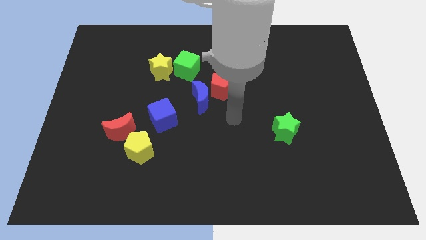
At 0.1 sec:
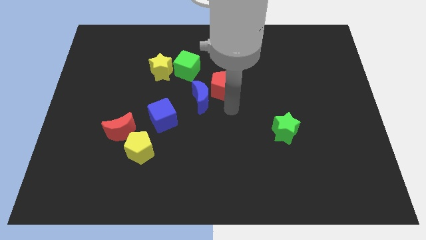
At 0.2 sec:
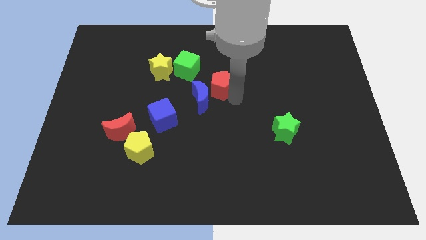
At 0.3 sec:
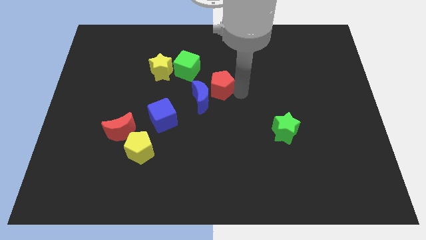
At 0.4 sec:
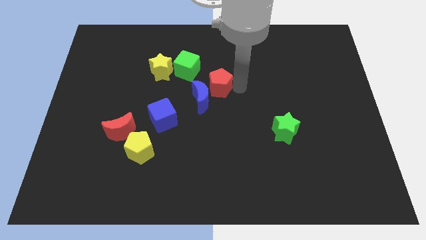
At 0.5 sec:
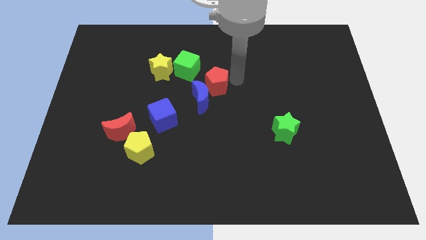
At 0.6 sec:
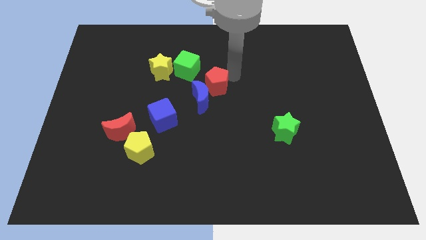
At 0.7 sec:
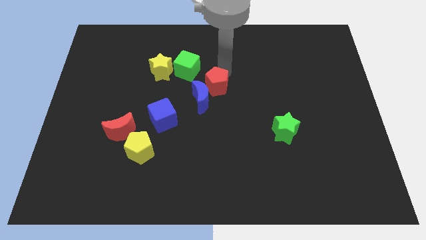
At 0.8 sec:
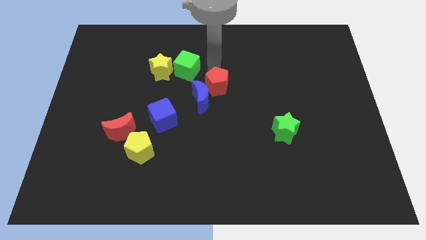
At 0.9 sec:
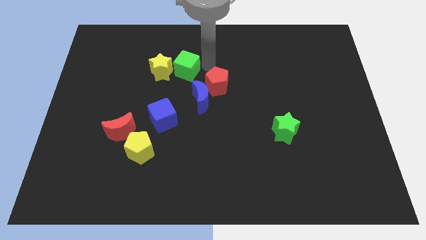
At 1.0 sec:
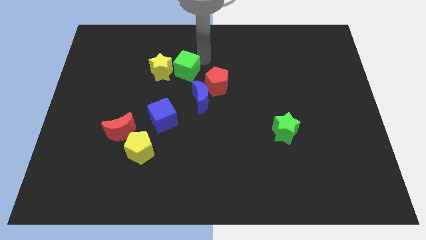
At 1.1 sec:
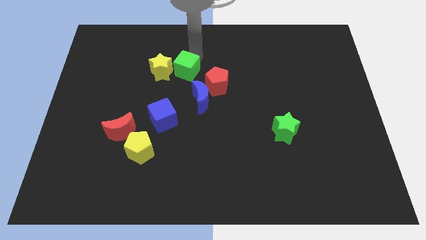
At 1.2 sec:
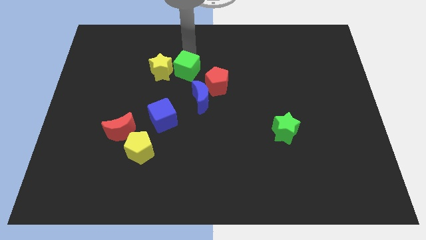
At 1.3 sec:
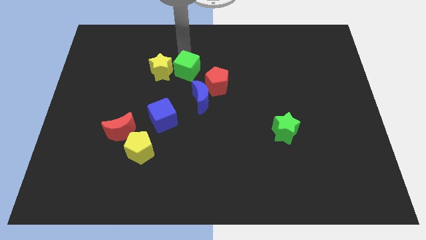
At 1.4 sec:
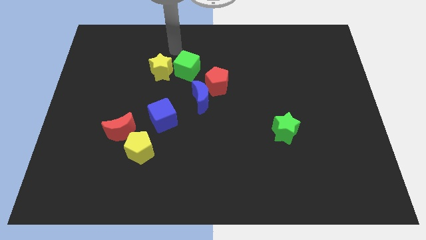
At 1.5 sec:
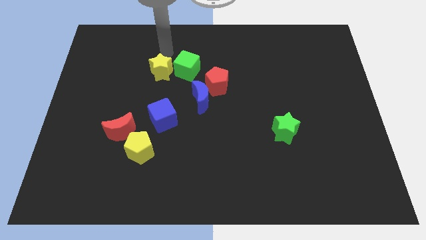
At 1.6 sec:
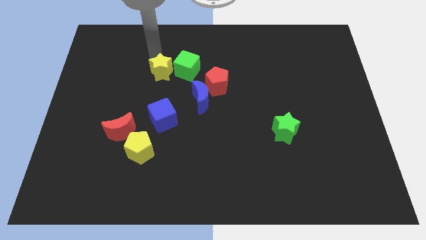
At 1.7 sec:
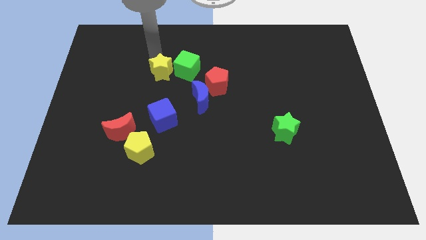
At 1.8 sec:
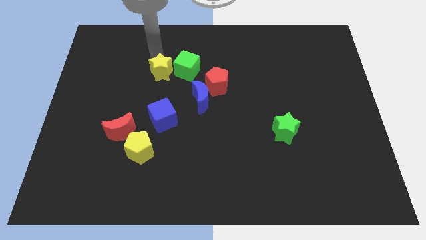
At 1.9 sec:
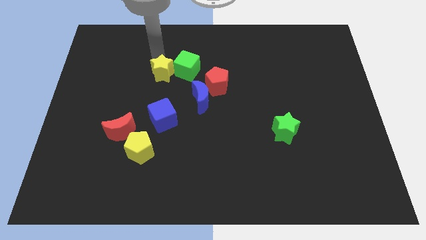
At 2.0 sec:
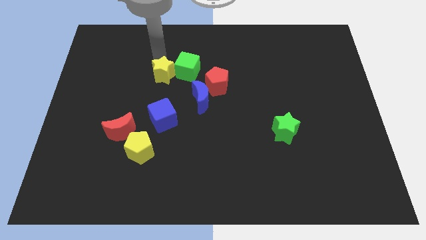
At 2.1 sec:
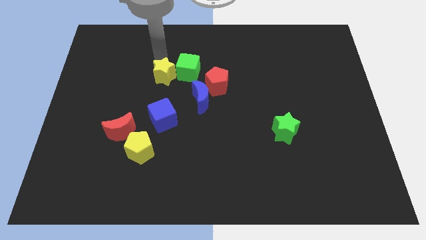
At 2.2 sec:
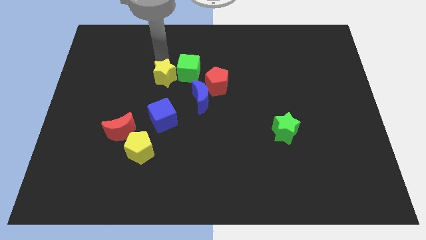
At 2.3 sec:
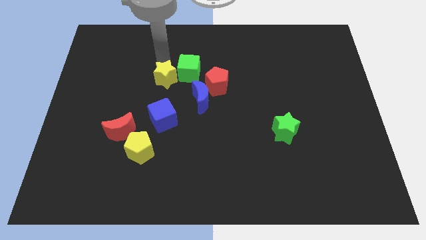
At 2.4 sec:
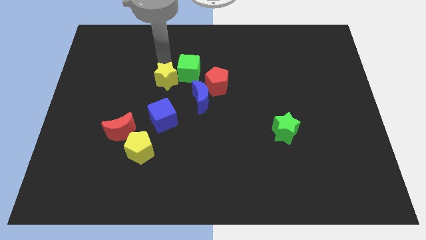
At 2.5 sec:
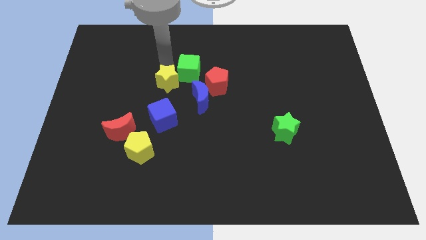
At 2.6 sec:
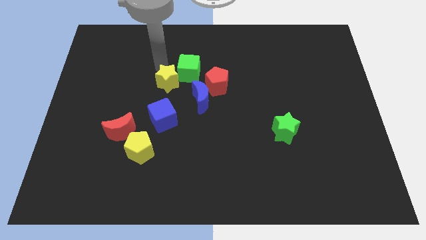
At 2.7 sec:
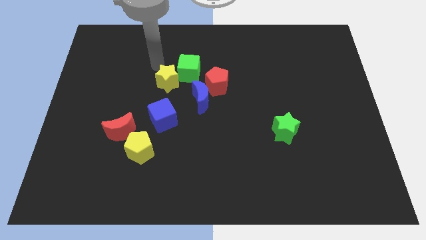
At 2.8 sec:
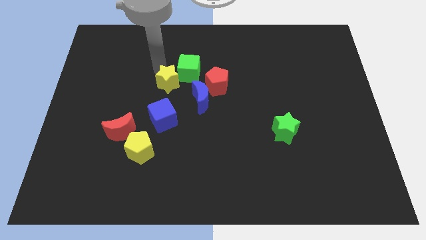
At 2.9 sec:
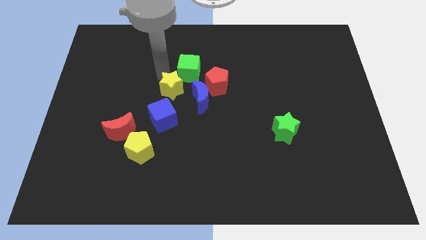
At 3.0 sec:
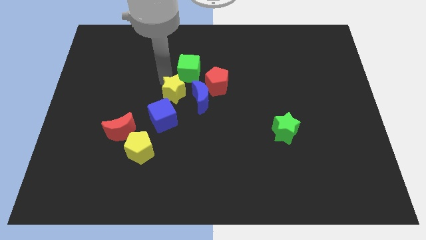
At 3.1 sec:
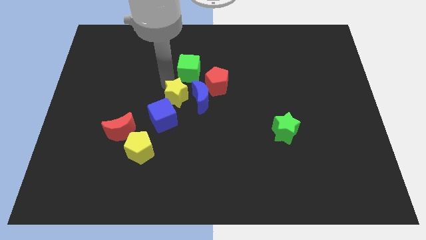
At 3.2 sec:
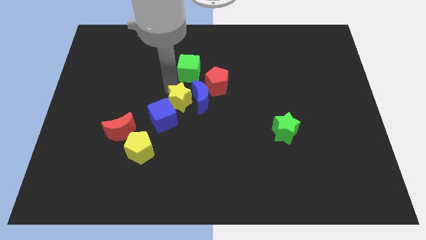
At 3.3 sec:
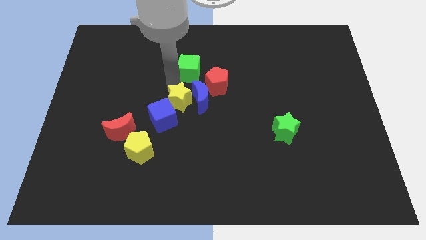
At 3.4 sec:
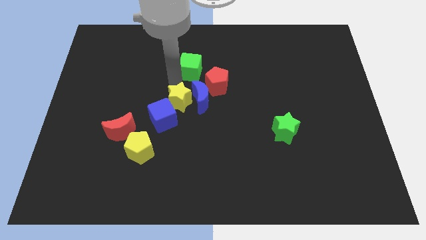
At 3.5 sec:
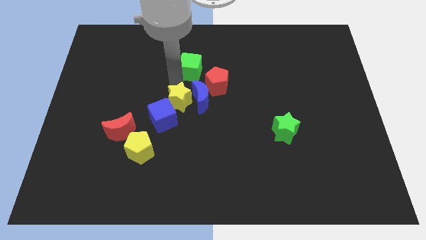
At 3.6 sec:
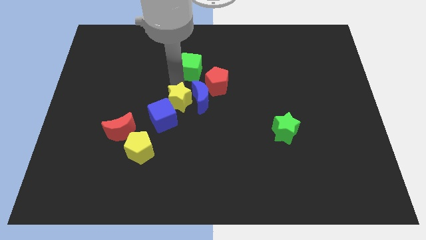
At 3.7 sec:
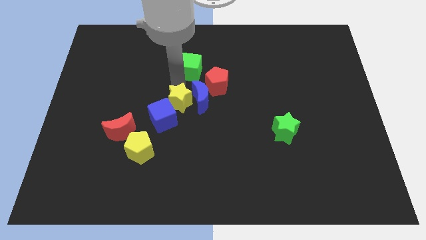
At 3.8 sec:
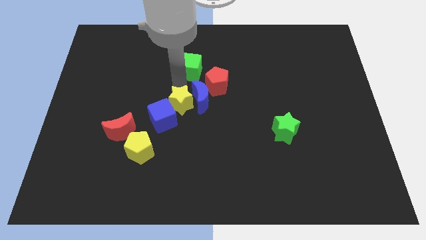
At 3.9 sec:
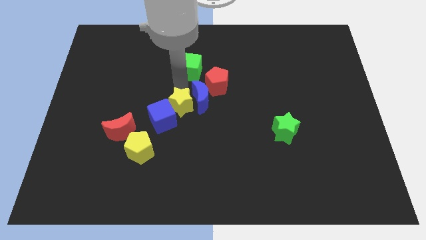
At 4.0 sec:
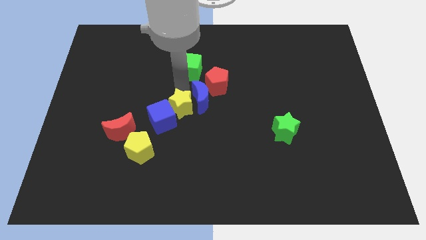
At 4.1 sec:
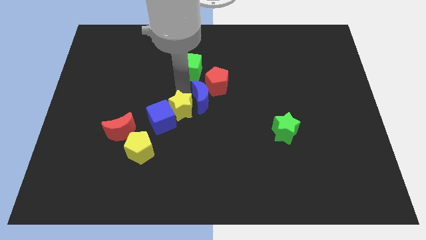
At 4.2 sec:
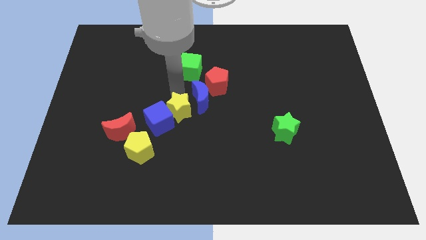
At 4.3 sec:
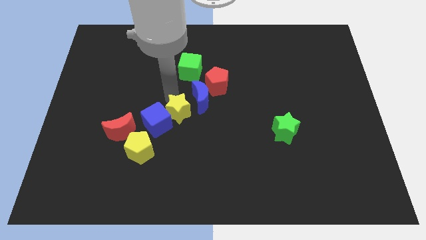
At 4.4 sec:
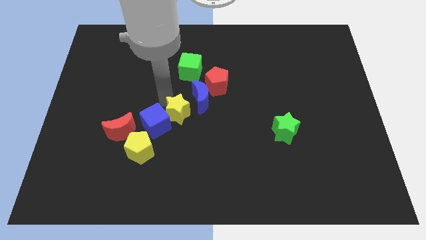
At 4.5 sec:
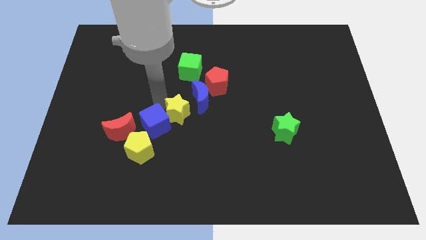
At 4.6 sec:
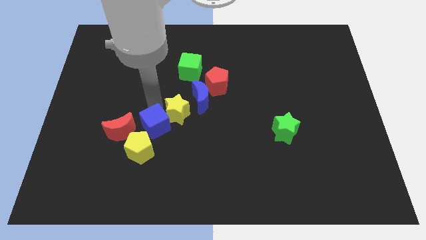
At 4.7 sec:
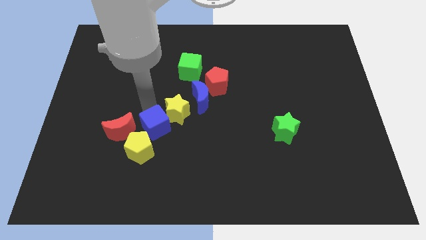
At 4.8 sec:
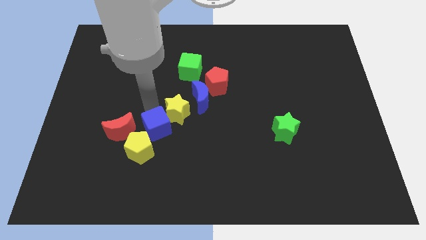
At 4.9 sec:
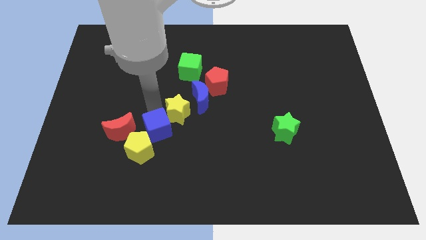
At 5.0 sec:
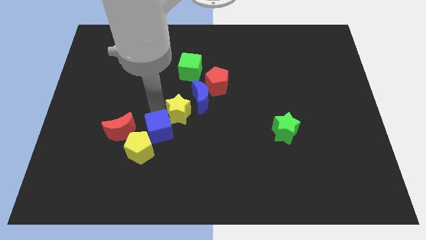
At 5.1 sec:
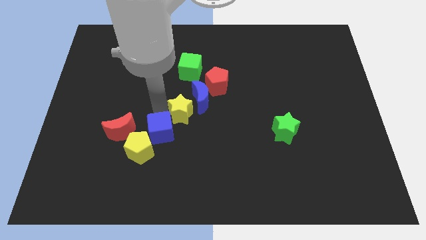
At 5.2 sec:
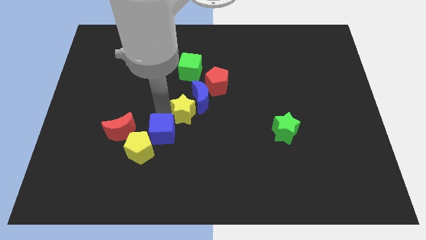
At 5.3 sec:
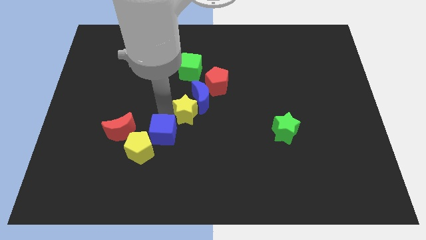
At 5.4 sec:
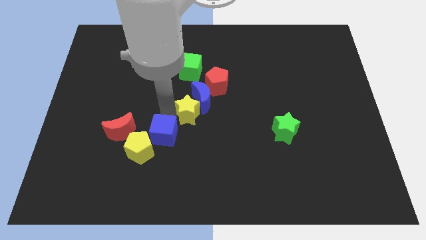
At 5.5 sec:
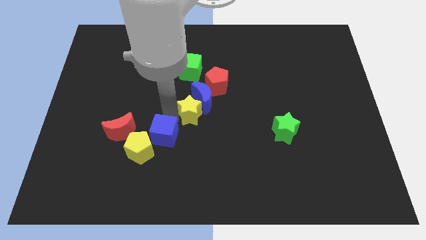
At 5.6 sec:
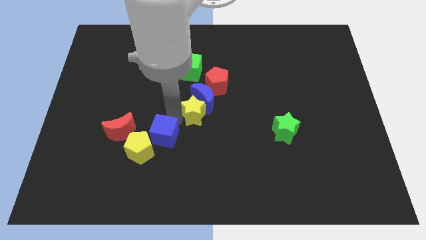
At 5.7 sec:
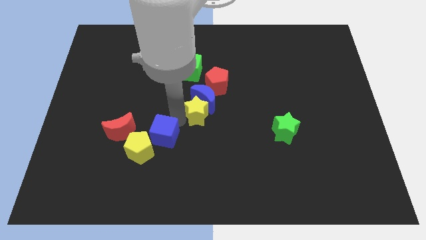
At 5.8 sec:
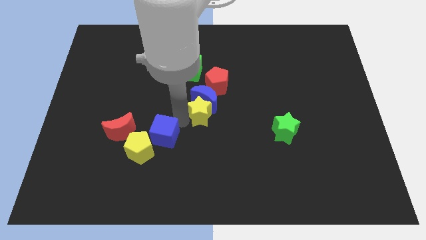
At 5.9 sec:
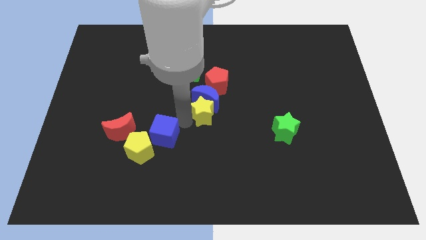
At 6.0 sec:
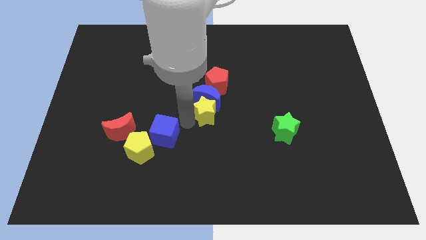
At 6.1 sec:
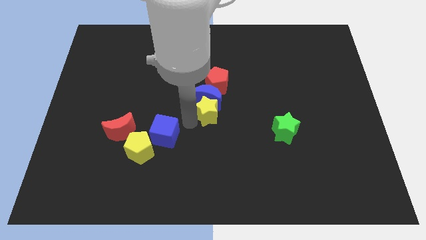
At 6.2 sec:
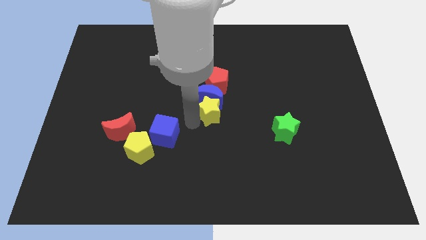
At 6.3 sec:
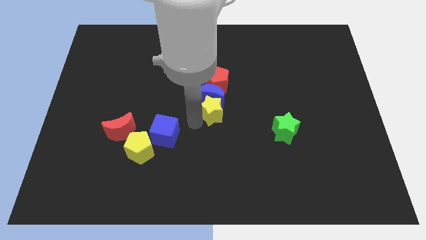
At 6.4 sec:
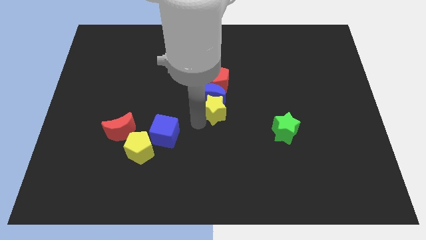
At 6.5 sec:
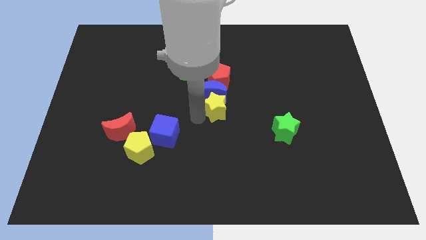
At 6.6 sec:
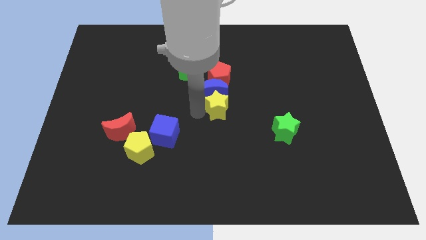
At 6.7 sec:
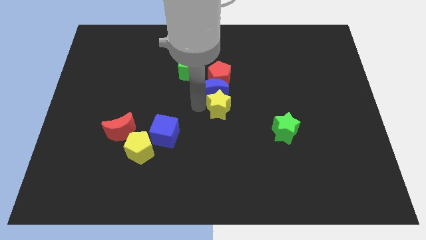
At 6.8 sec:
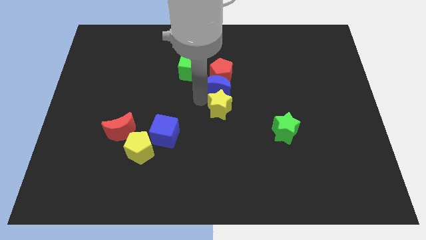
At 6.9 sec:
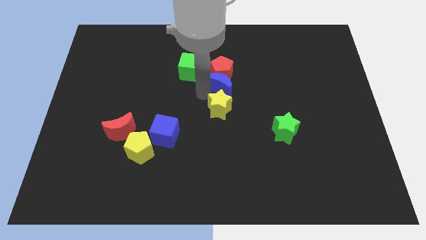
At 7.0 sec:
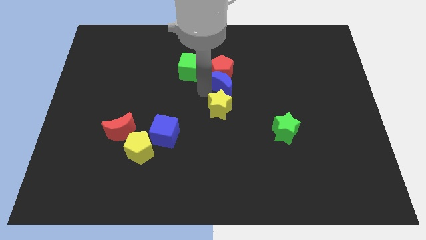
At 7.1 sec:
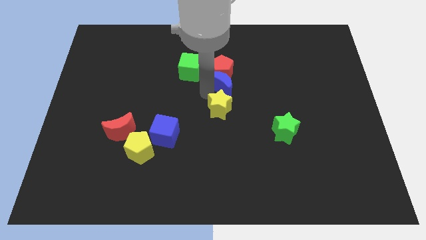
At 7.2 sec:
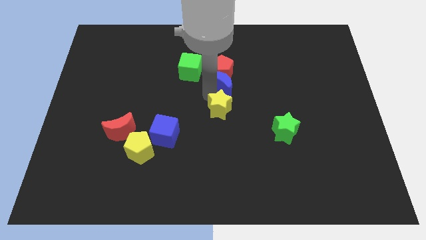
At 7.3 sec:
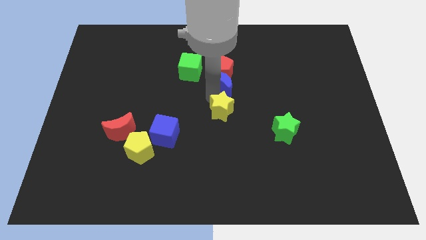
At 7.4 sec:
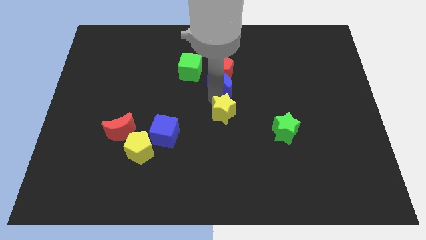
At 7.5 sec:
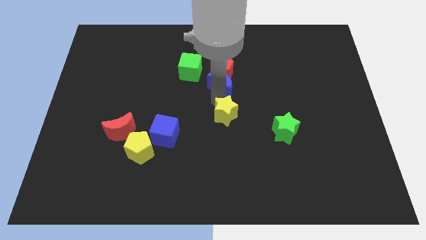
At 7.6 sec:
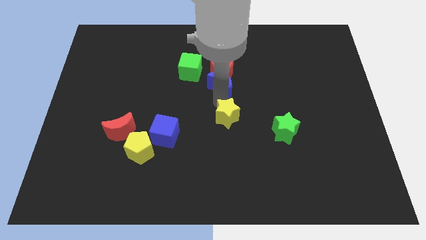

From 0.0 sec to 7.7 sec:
push the yellow star to the left side of the green star
